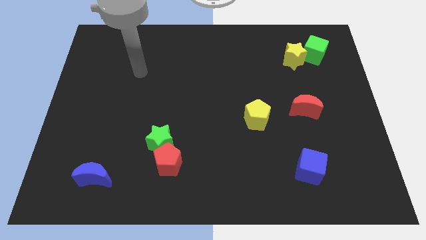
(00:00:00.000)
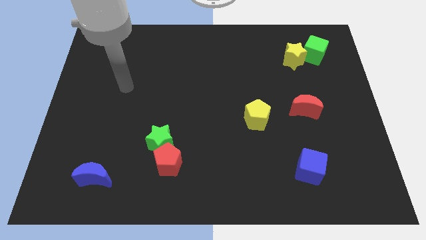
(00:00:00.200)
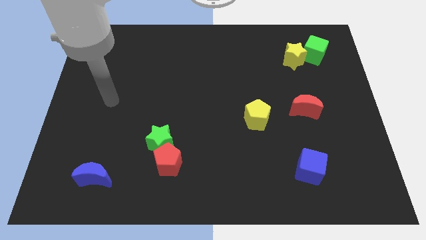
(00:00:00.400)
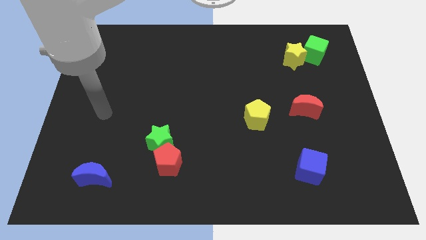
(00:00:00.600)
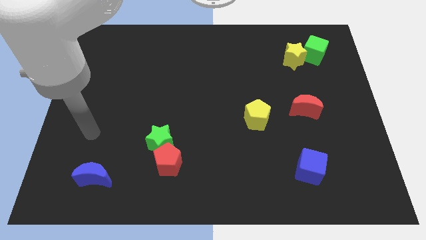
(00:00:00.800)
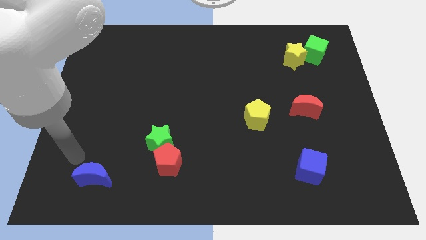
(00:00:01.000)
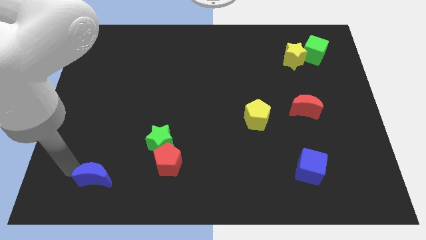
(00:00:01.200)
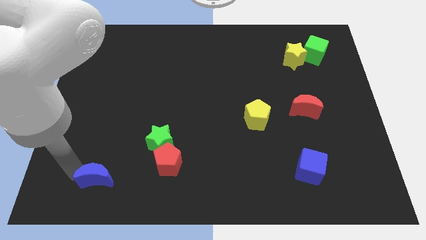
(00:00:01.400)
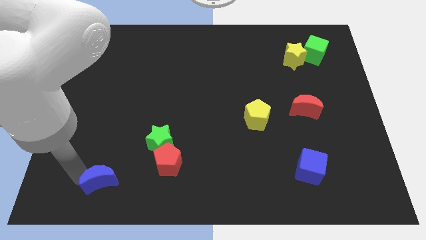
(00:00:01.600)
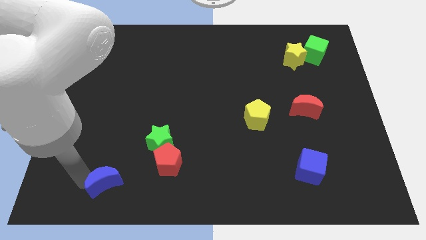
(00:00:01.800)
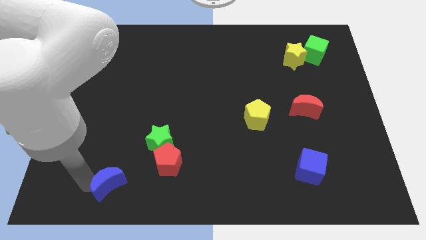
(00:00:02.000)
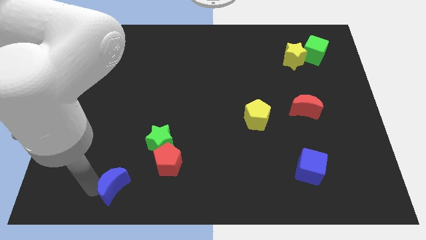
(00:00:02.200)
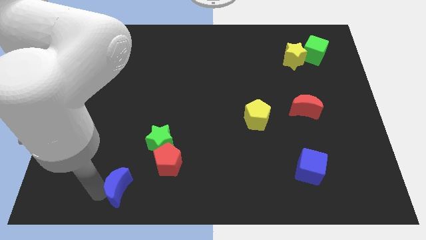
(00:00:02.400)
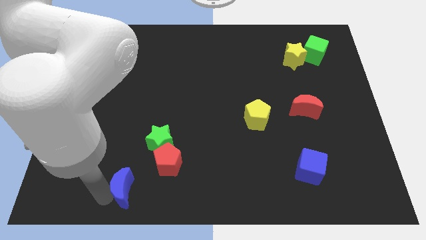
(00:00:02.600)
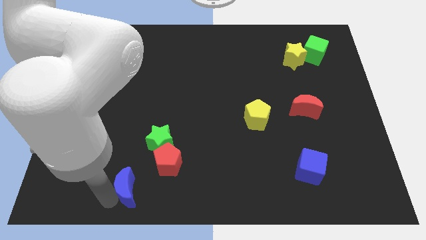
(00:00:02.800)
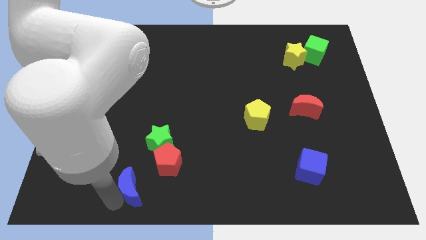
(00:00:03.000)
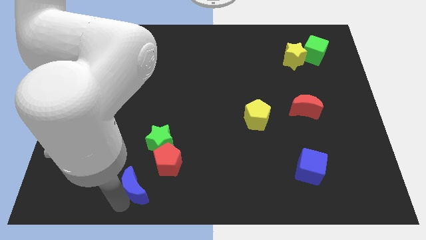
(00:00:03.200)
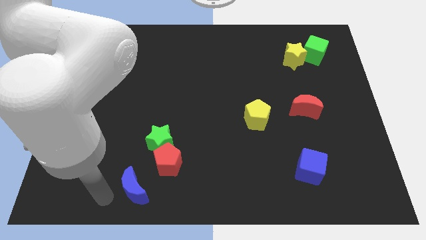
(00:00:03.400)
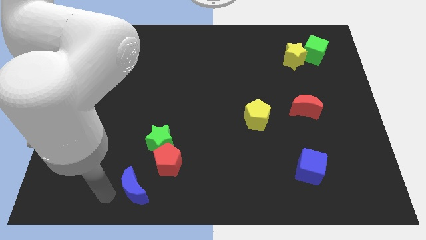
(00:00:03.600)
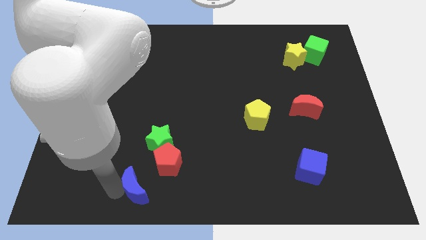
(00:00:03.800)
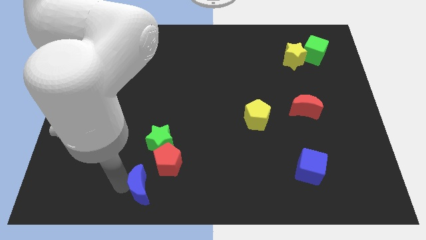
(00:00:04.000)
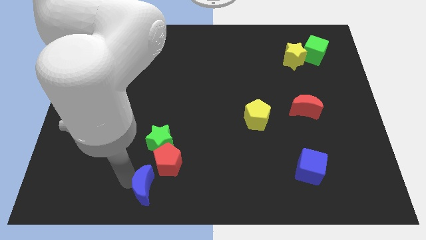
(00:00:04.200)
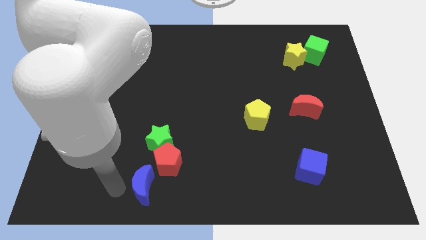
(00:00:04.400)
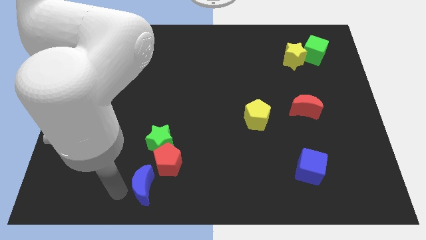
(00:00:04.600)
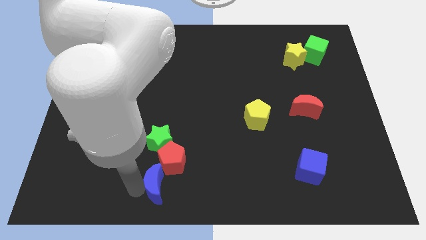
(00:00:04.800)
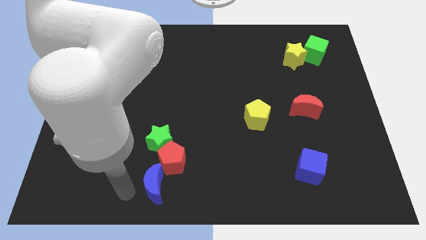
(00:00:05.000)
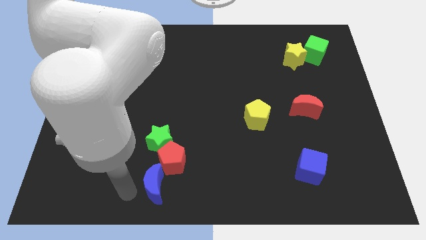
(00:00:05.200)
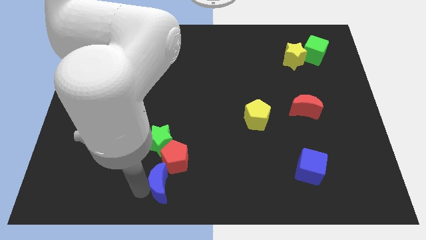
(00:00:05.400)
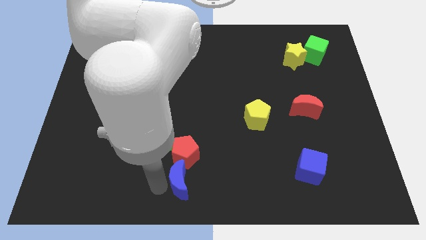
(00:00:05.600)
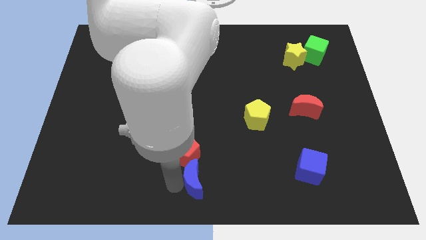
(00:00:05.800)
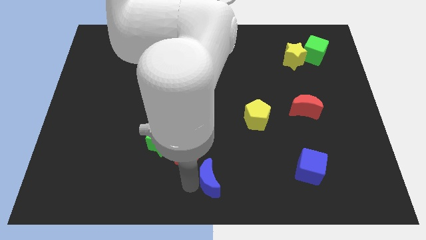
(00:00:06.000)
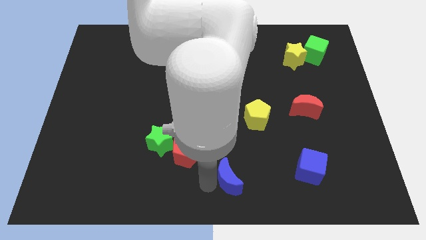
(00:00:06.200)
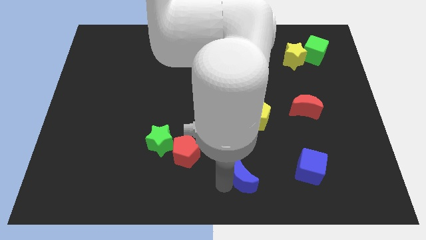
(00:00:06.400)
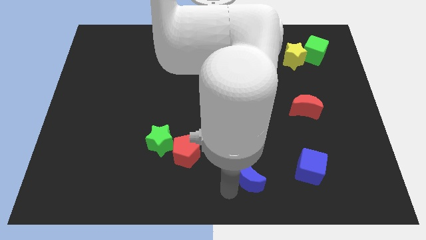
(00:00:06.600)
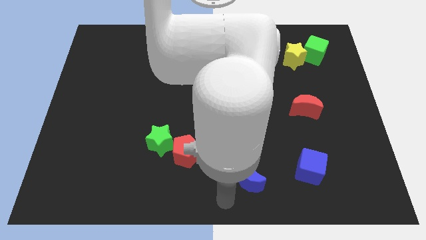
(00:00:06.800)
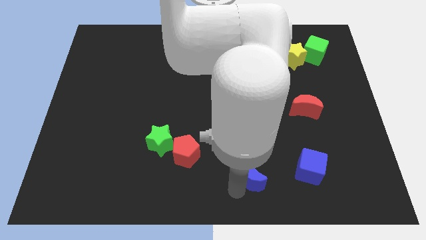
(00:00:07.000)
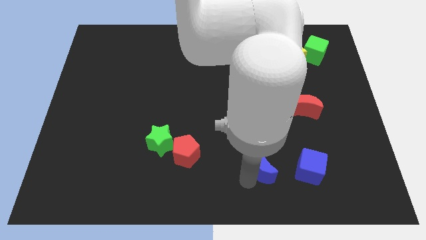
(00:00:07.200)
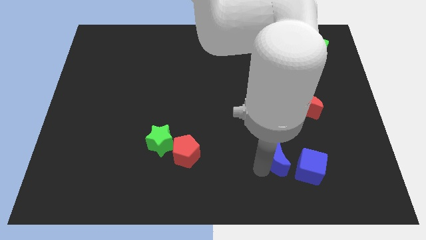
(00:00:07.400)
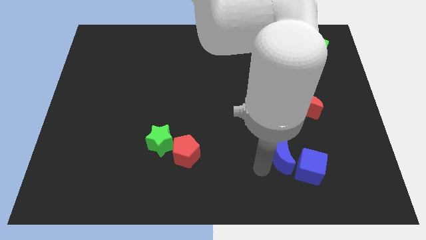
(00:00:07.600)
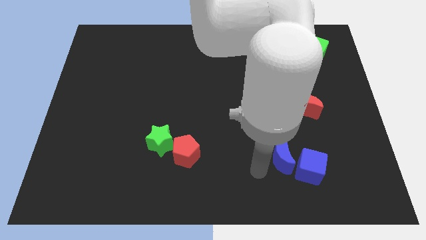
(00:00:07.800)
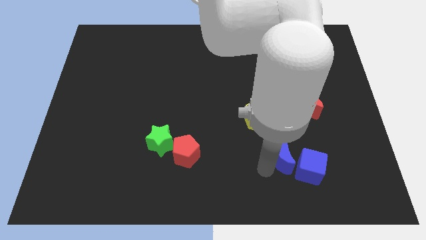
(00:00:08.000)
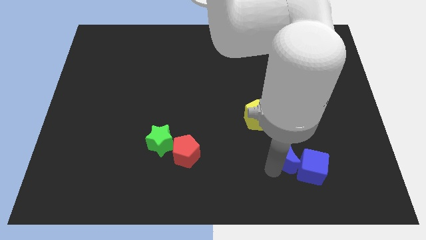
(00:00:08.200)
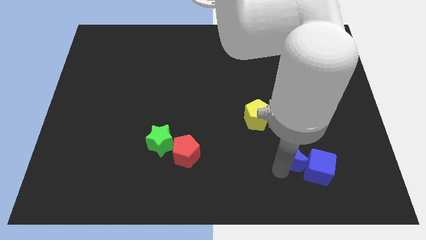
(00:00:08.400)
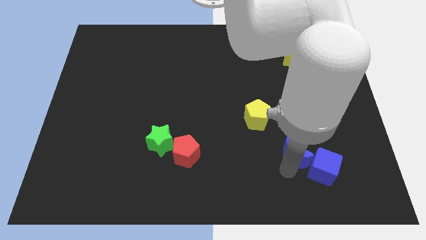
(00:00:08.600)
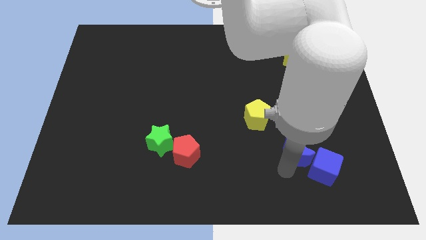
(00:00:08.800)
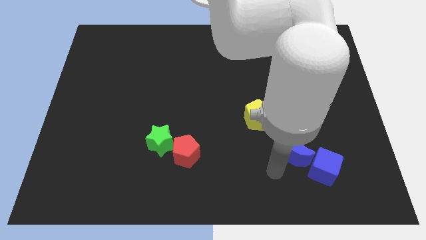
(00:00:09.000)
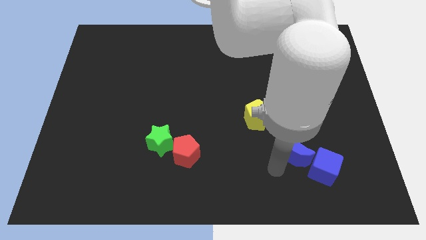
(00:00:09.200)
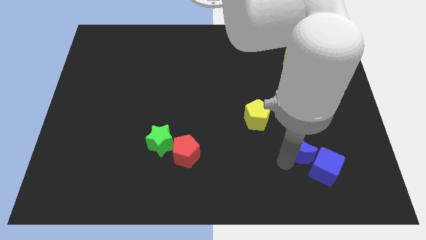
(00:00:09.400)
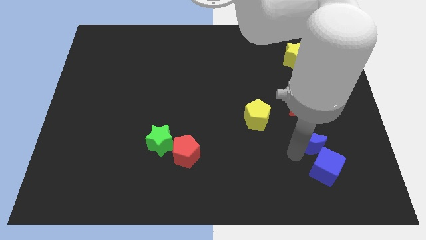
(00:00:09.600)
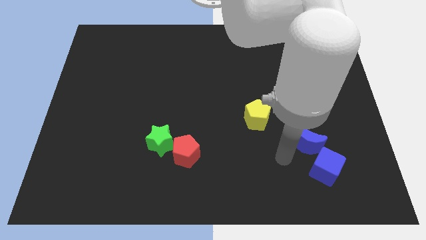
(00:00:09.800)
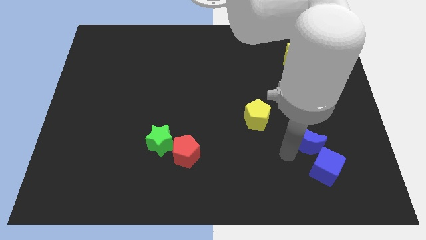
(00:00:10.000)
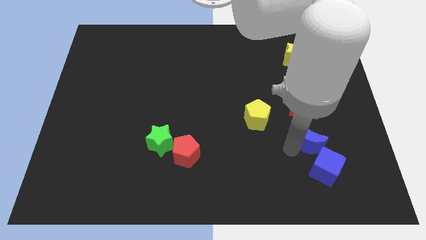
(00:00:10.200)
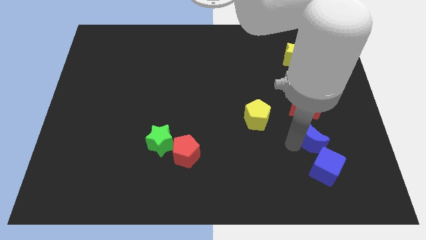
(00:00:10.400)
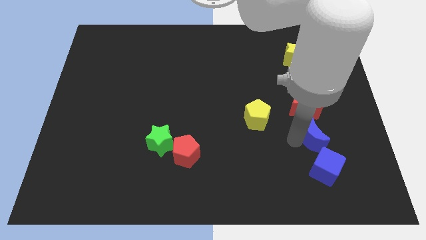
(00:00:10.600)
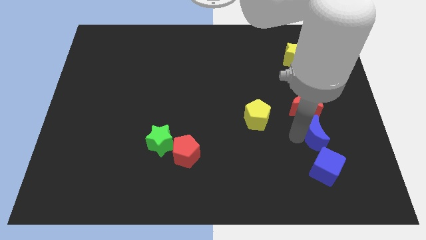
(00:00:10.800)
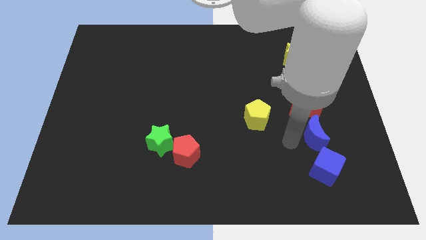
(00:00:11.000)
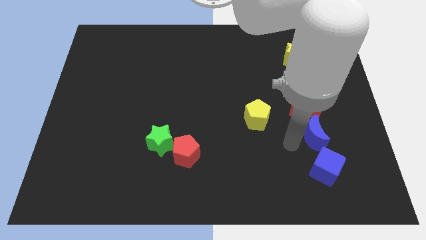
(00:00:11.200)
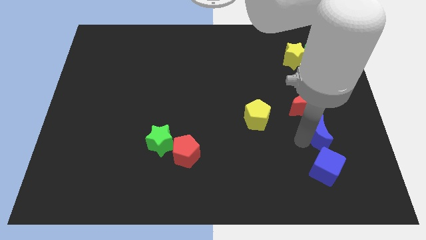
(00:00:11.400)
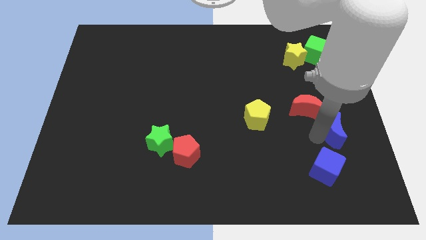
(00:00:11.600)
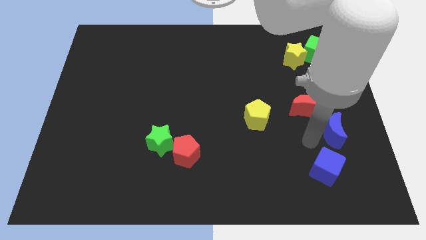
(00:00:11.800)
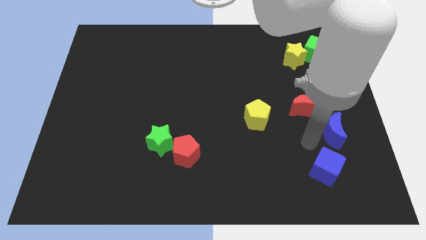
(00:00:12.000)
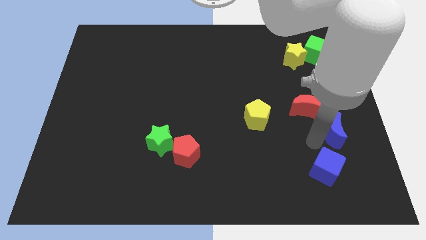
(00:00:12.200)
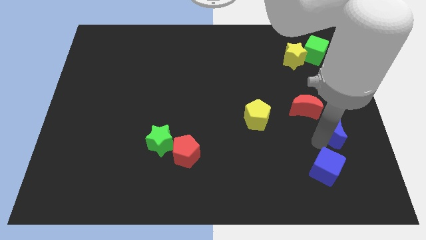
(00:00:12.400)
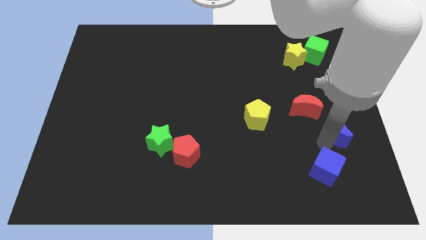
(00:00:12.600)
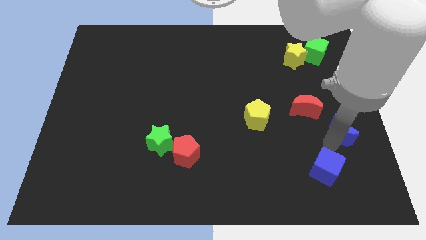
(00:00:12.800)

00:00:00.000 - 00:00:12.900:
push the blue moon to the right side
